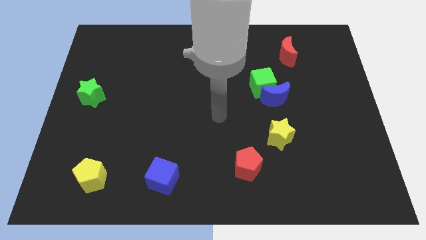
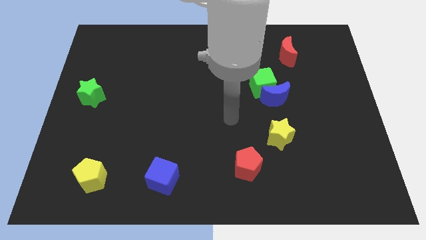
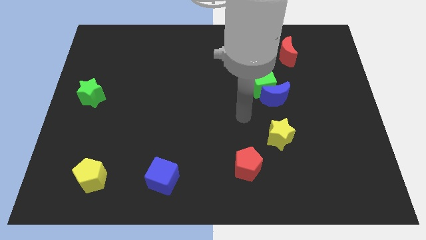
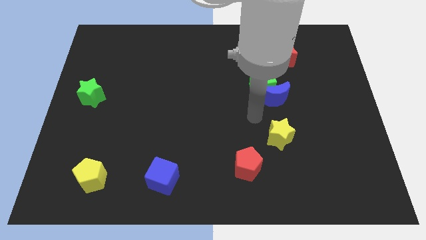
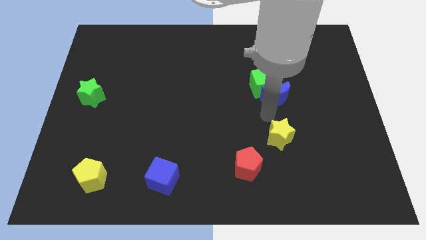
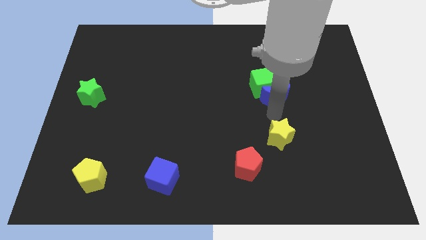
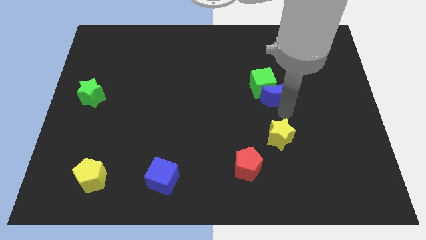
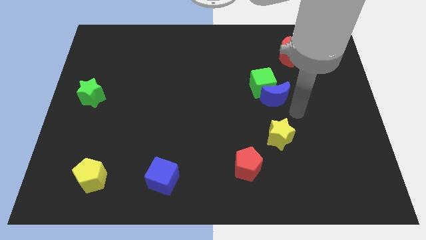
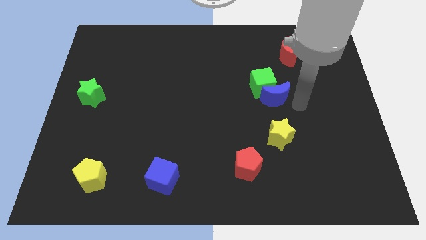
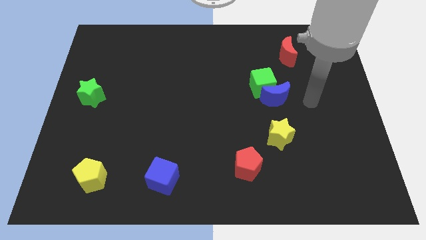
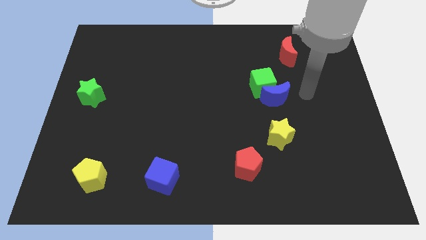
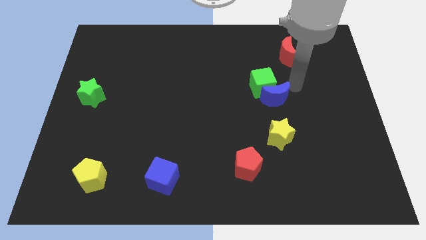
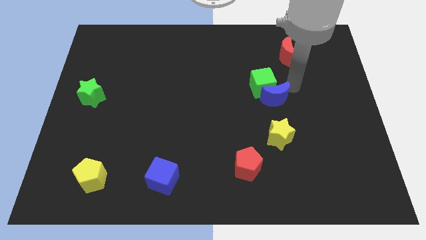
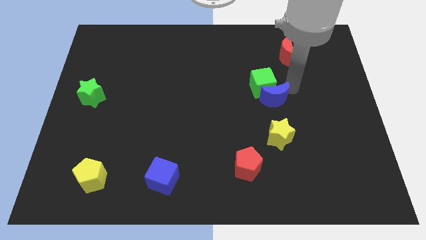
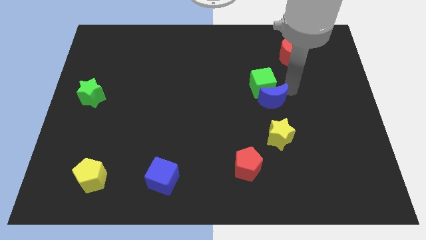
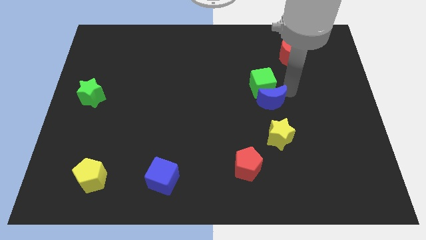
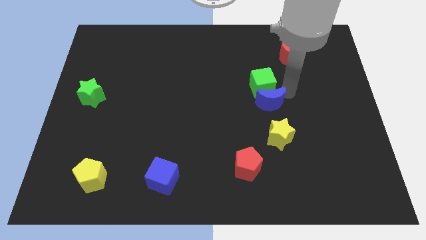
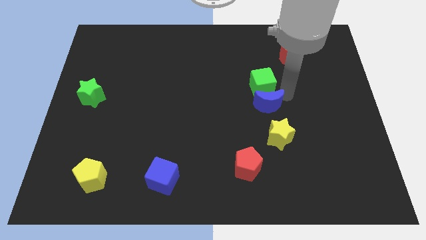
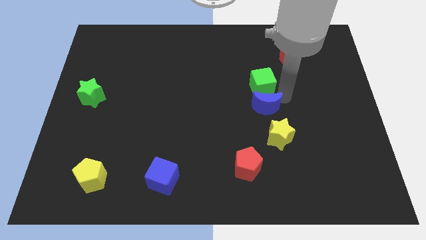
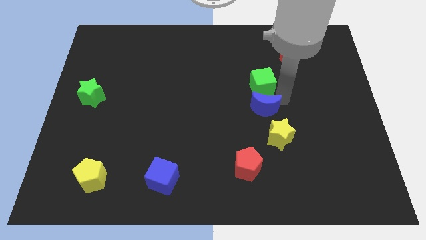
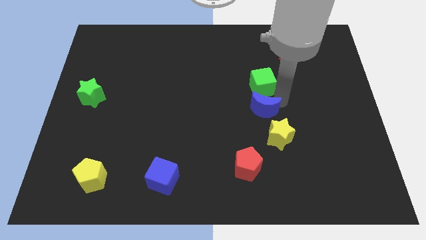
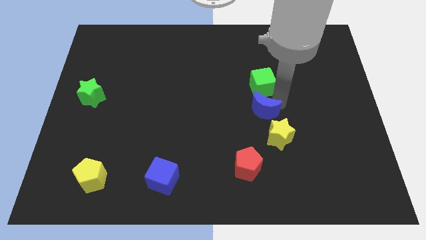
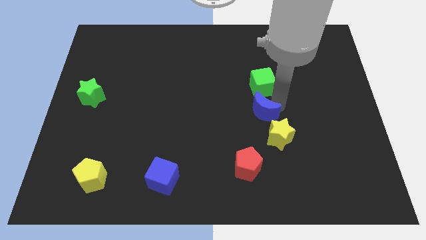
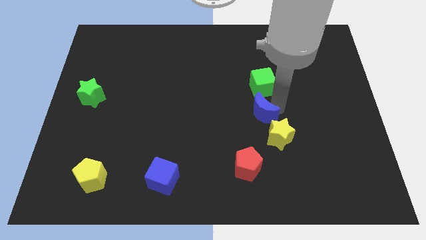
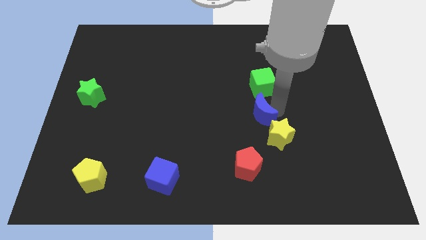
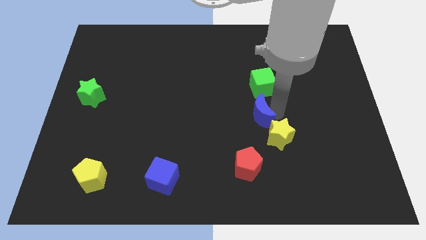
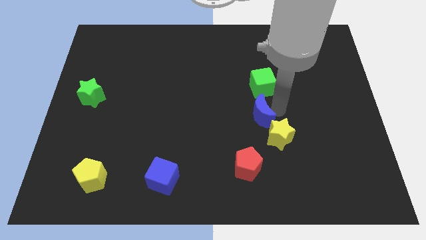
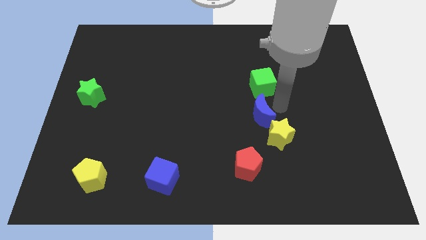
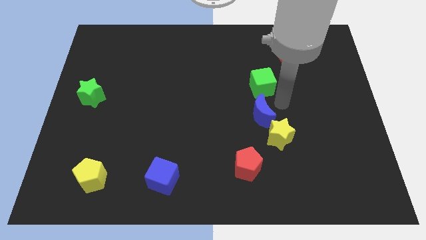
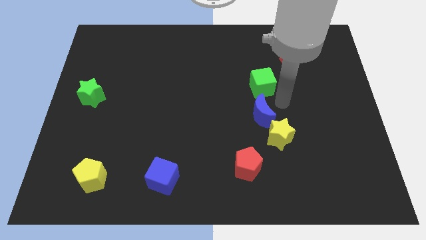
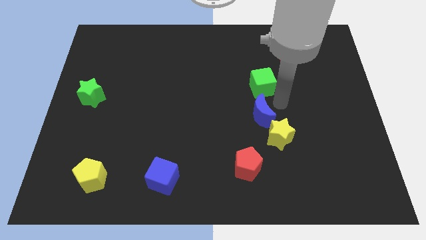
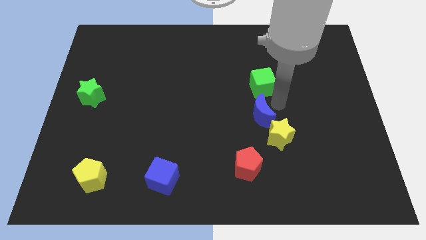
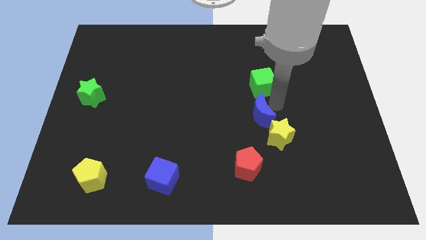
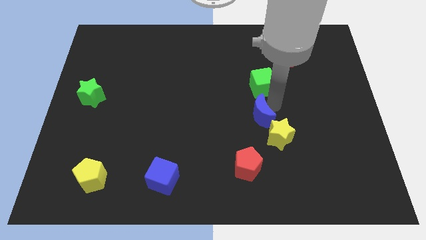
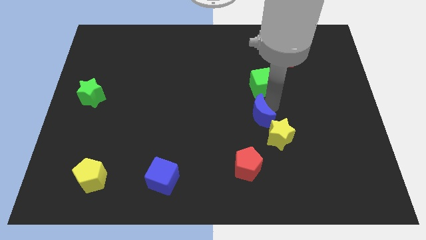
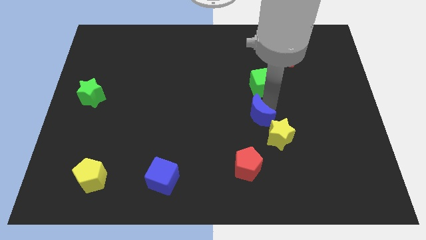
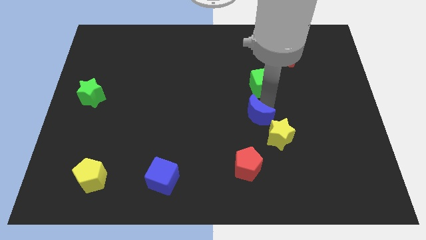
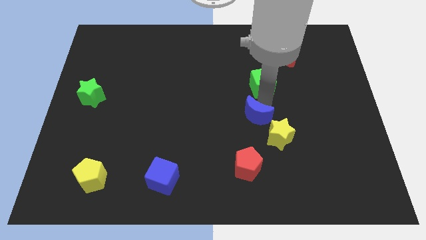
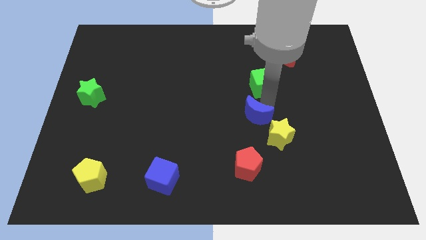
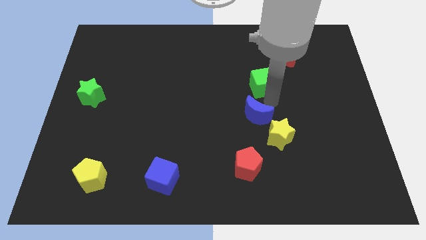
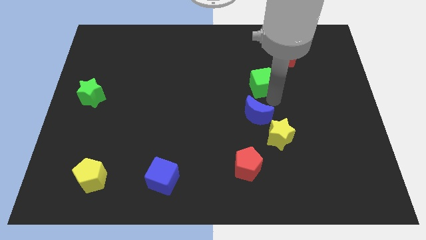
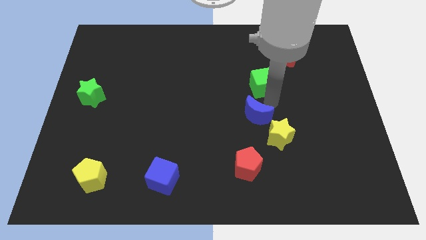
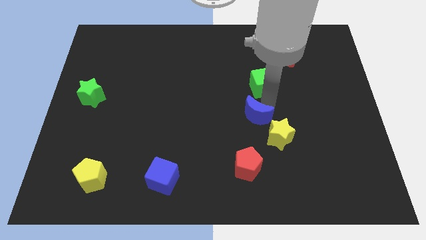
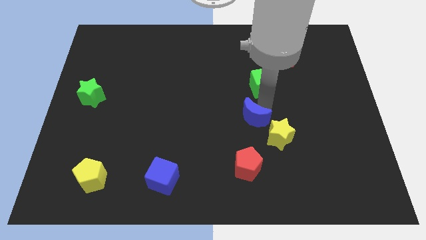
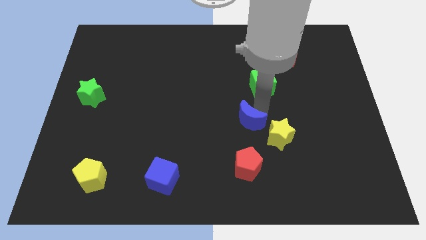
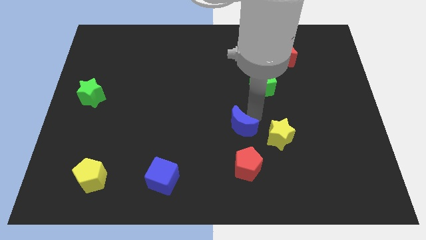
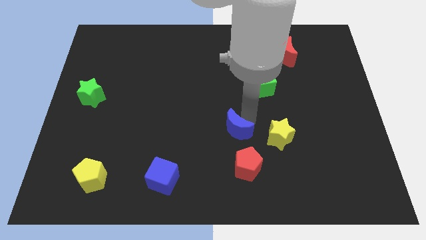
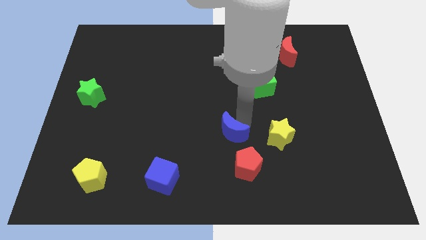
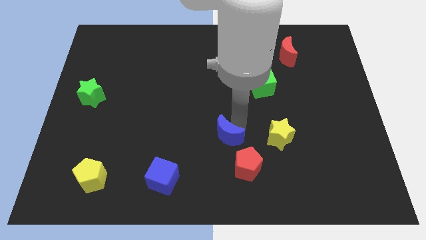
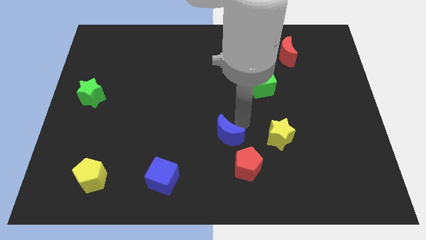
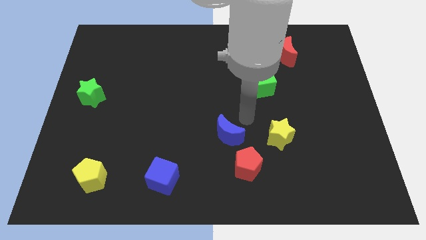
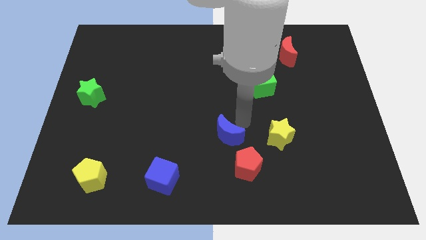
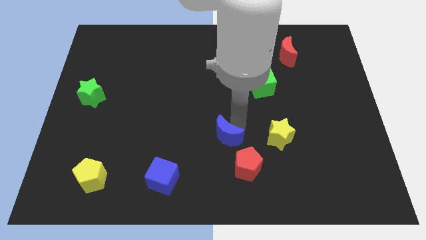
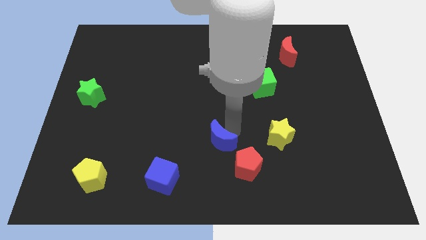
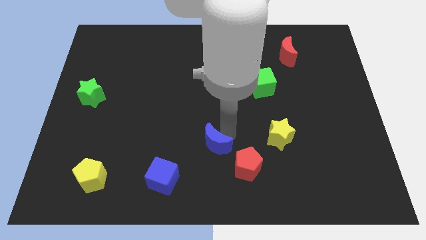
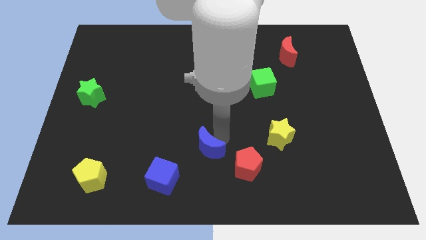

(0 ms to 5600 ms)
push the blue moon left of the red pentagon

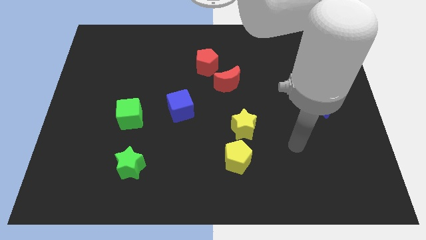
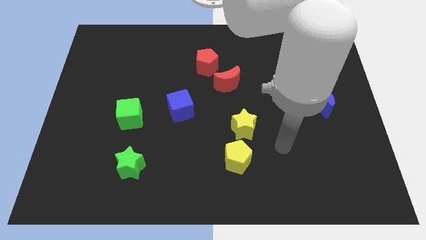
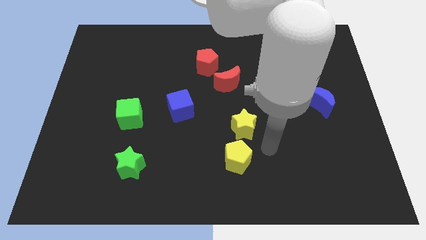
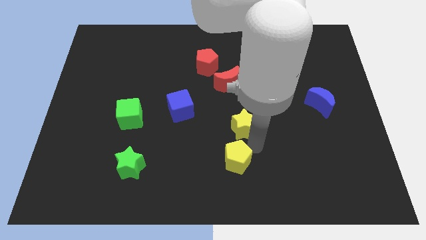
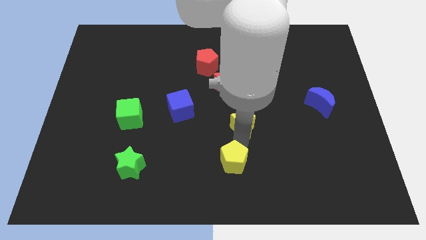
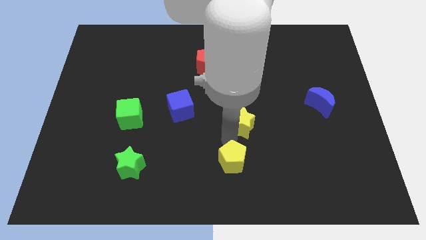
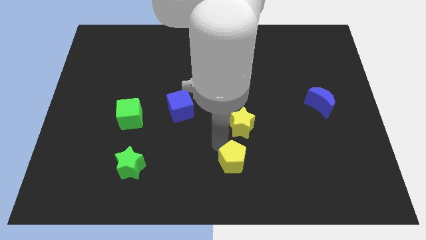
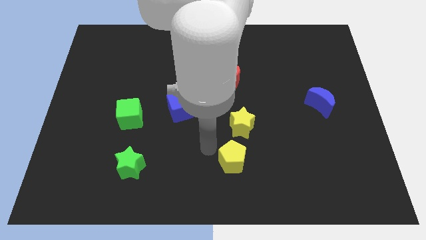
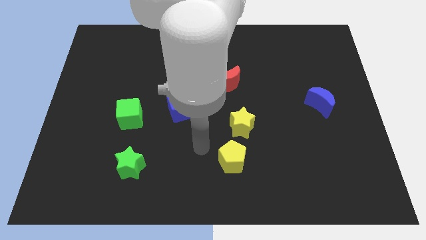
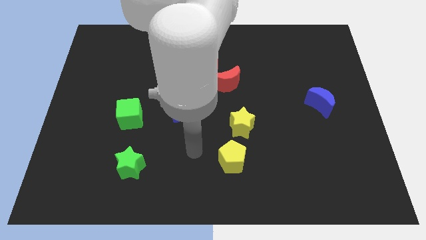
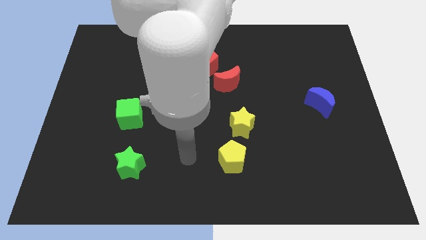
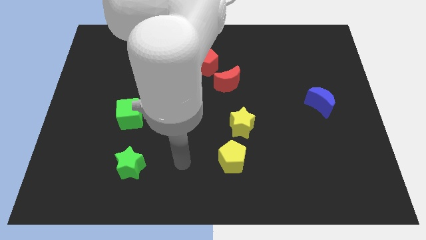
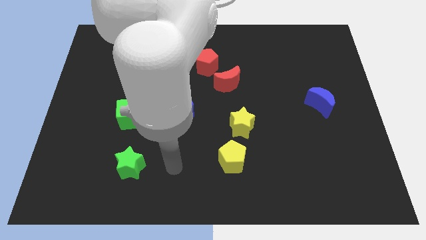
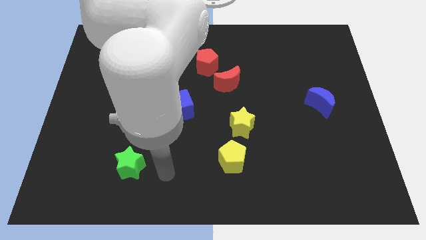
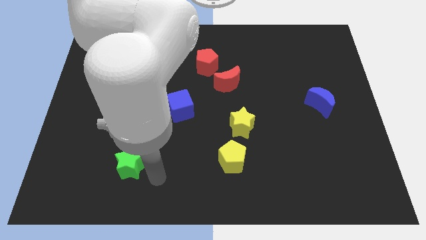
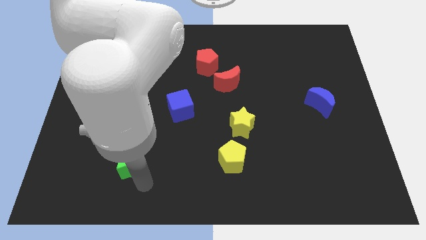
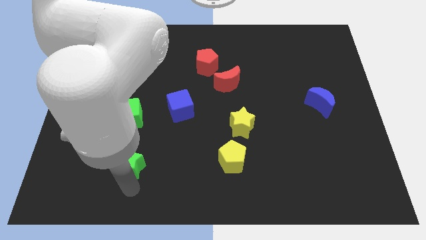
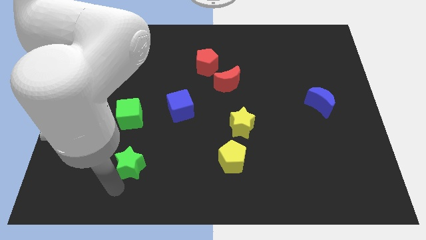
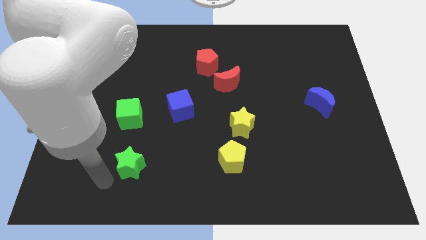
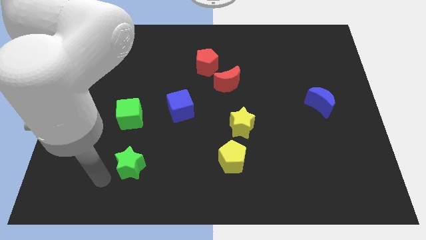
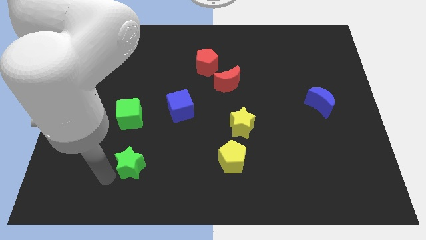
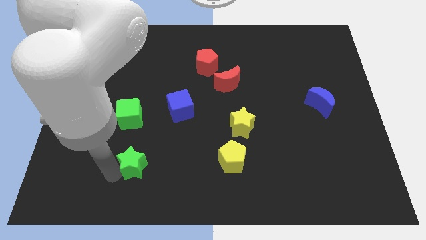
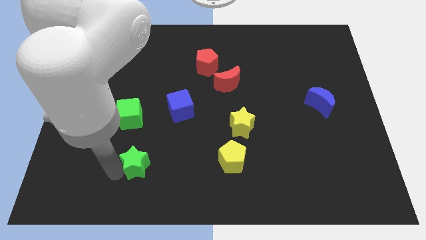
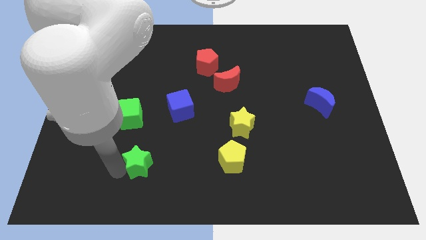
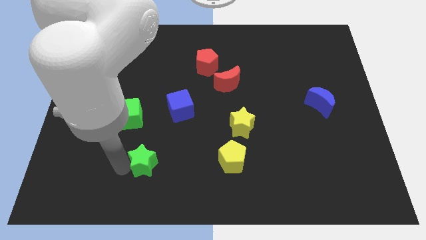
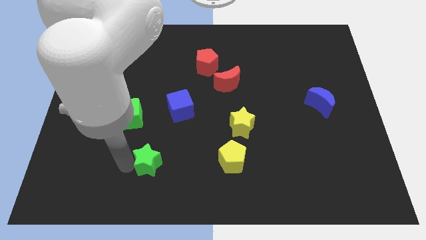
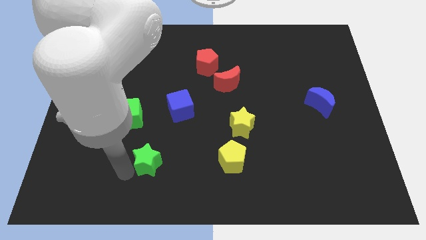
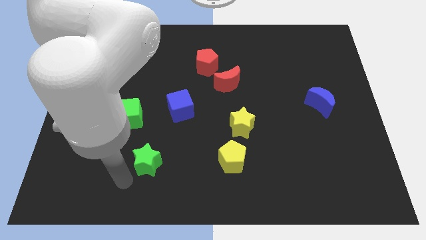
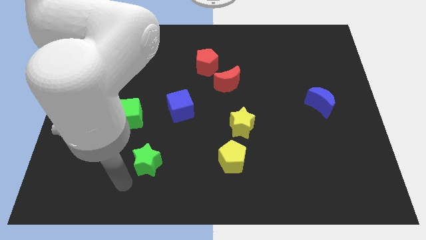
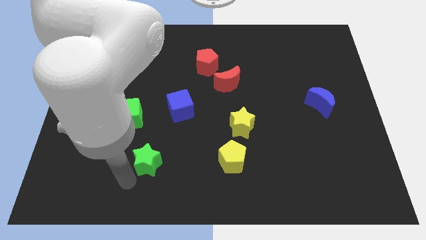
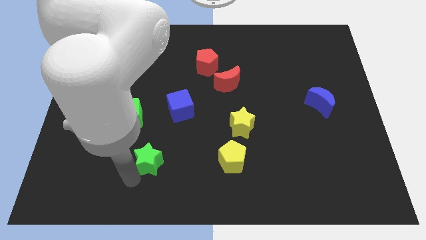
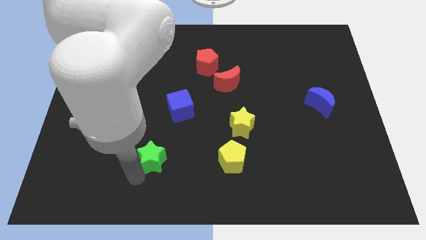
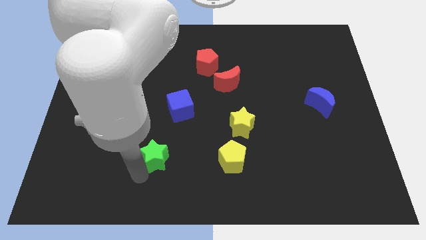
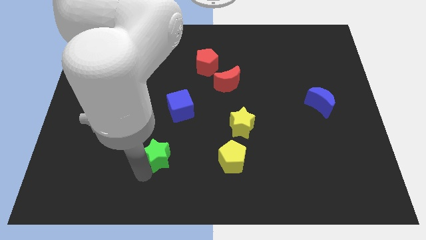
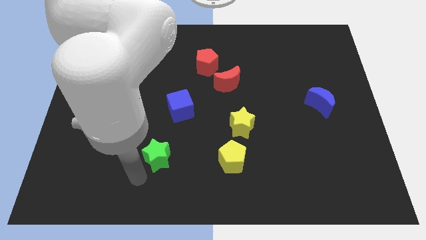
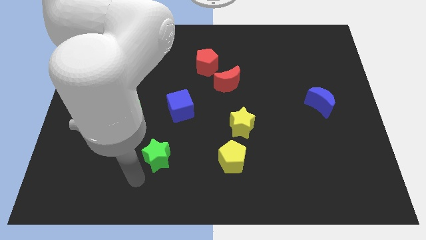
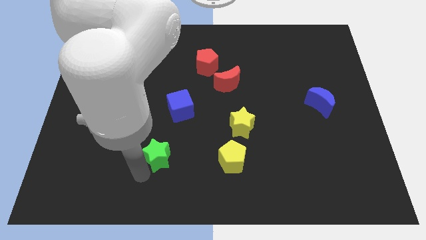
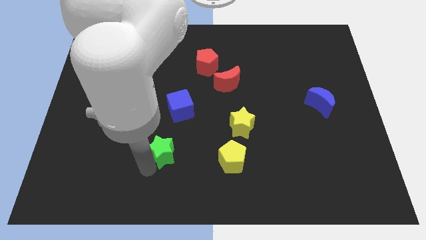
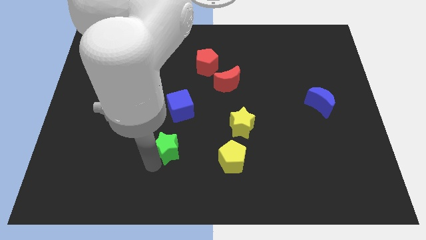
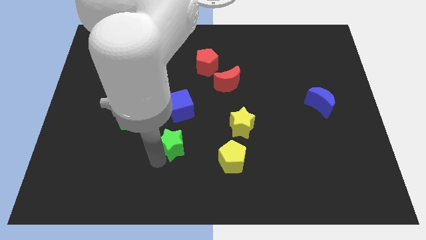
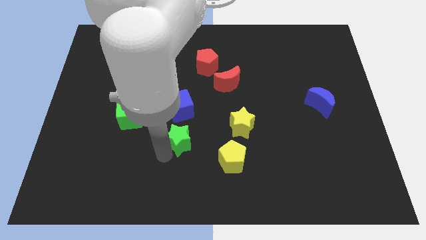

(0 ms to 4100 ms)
move the green star just left of the yellow star
